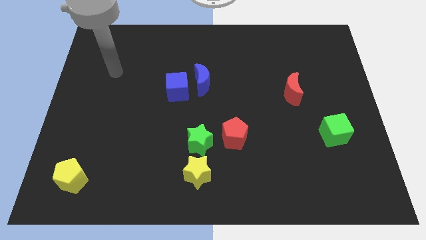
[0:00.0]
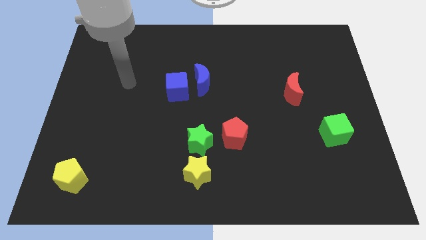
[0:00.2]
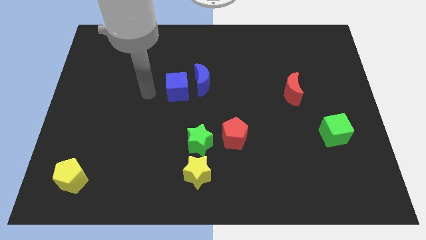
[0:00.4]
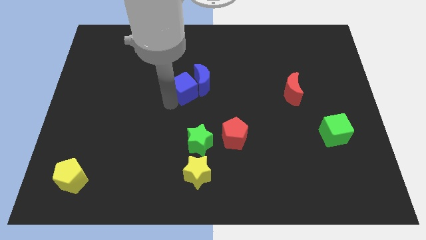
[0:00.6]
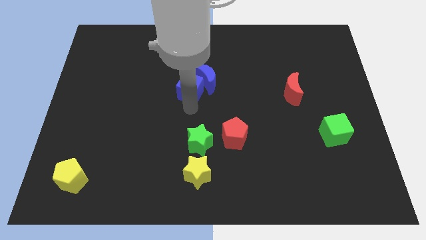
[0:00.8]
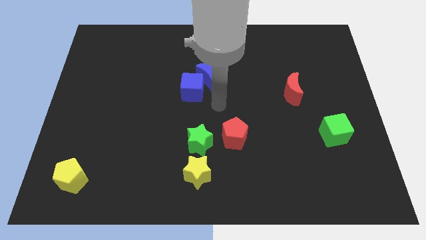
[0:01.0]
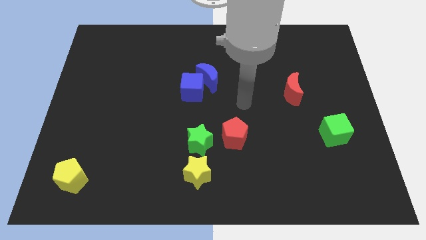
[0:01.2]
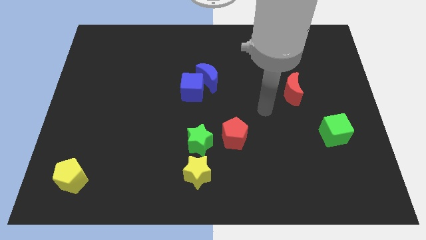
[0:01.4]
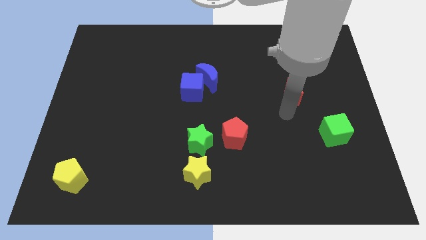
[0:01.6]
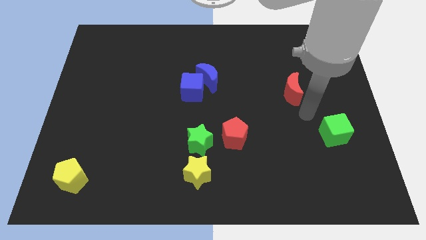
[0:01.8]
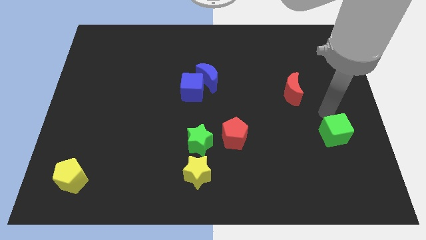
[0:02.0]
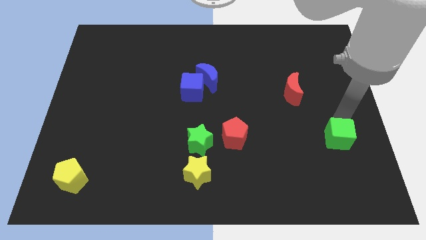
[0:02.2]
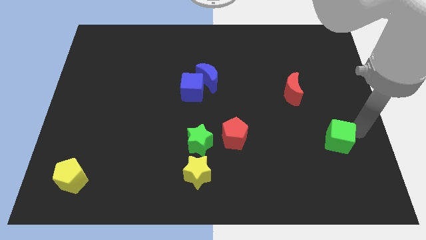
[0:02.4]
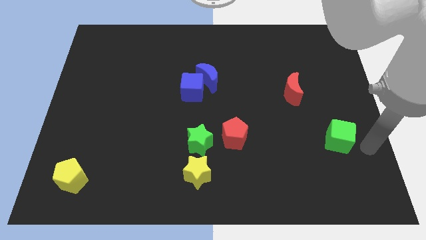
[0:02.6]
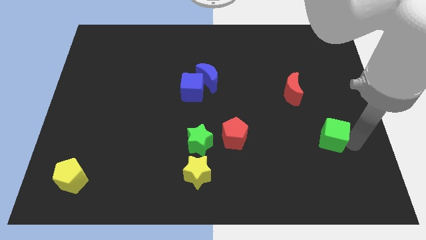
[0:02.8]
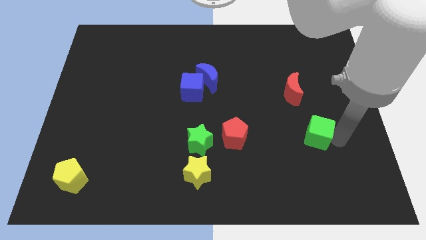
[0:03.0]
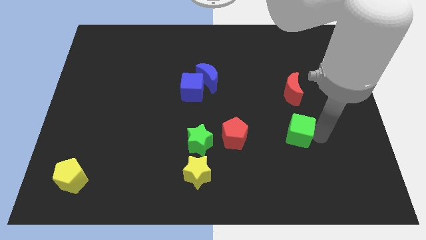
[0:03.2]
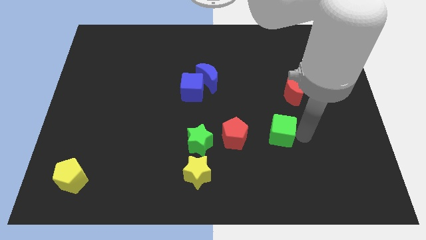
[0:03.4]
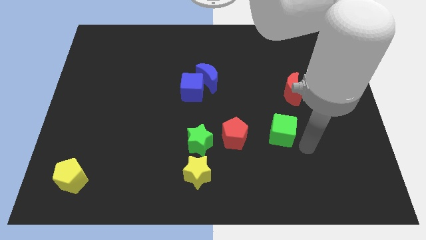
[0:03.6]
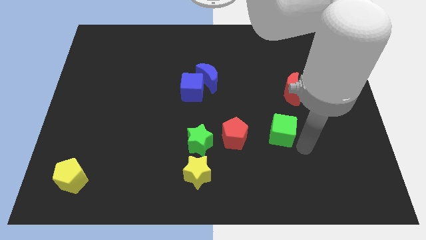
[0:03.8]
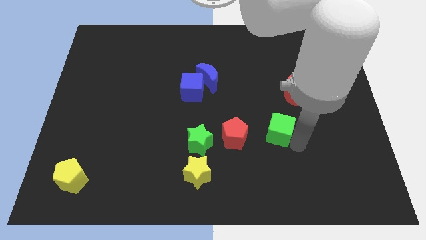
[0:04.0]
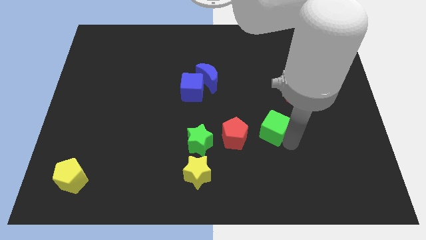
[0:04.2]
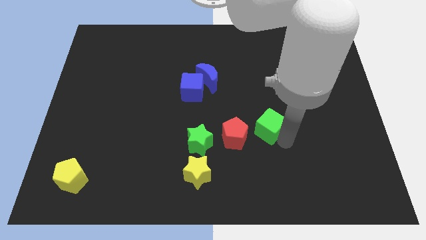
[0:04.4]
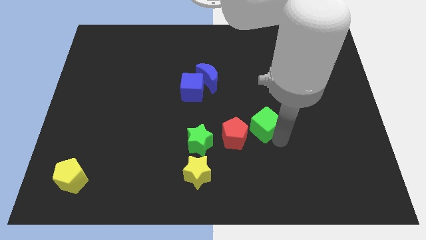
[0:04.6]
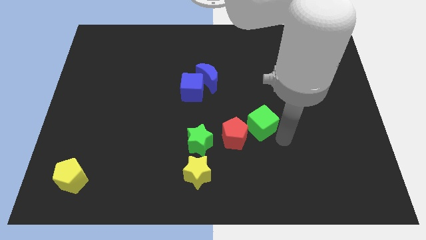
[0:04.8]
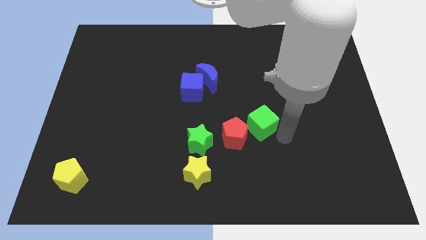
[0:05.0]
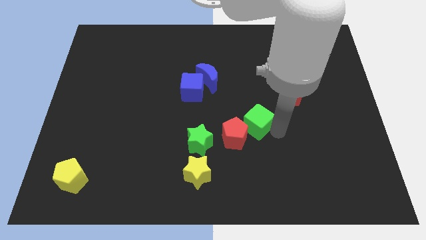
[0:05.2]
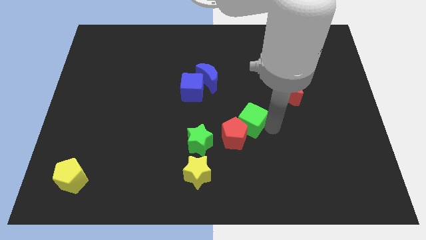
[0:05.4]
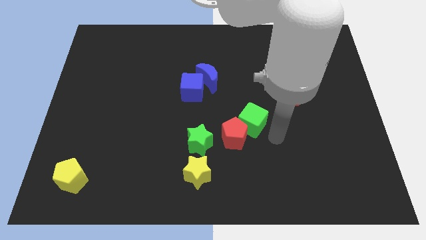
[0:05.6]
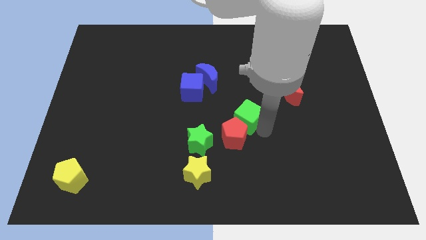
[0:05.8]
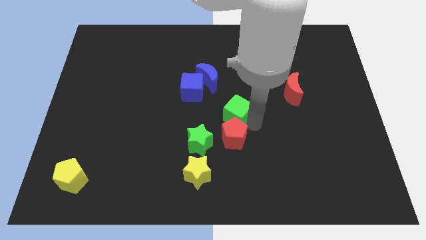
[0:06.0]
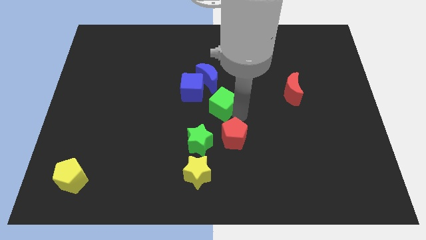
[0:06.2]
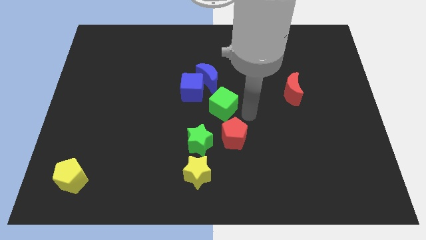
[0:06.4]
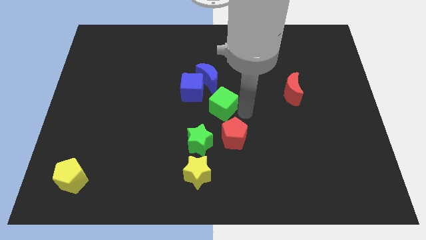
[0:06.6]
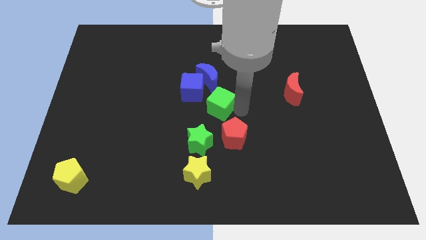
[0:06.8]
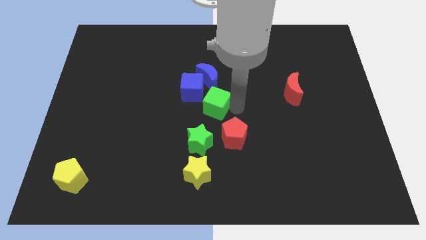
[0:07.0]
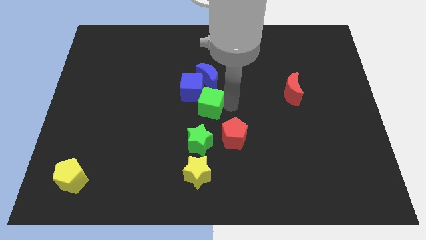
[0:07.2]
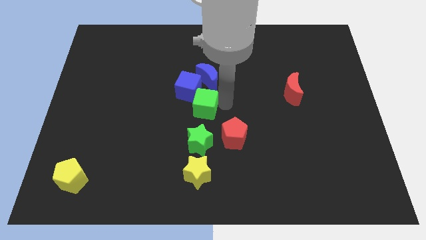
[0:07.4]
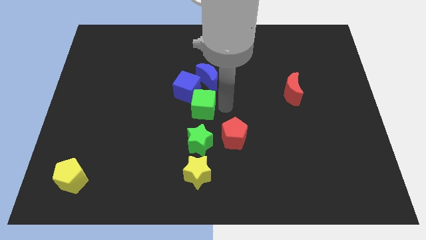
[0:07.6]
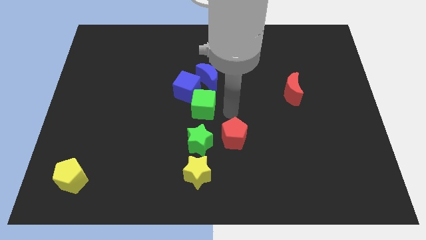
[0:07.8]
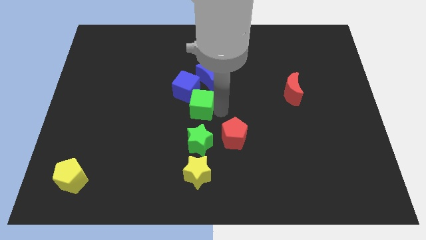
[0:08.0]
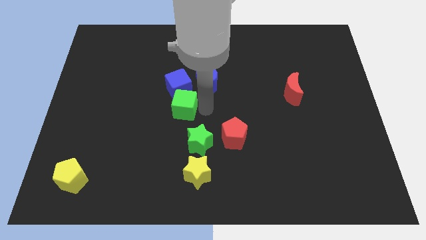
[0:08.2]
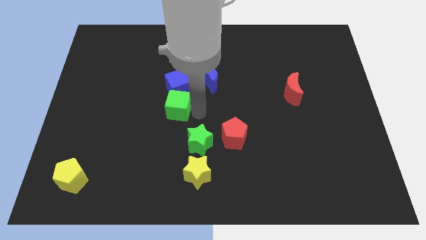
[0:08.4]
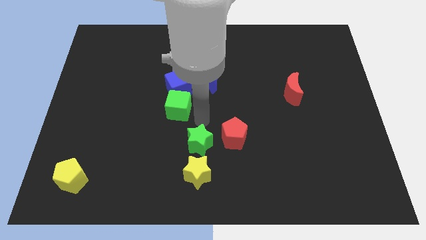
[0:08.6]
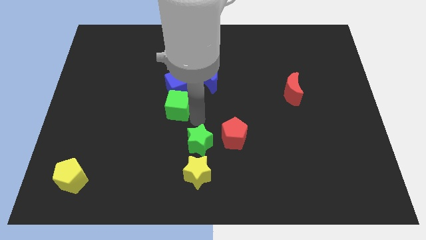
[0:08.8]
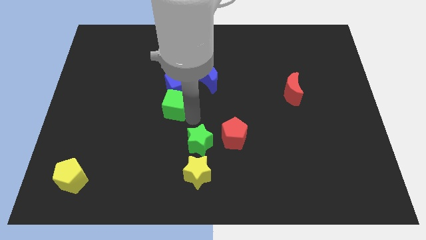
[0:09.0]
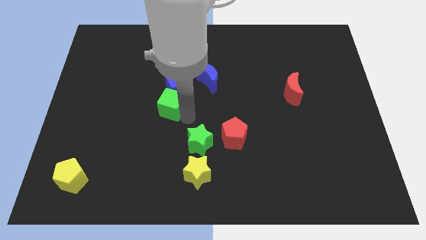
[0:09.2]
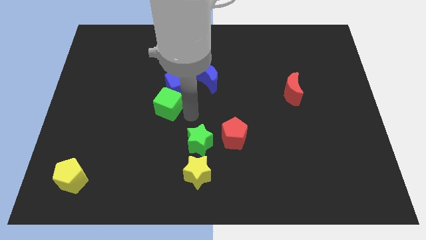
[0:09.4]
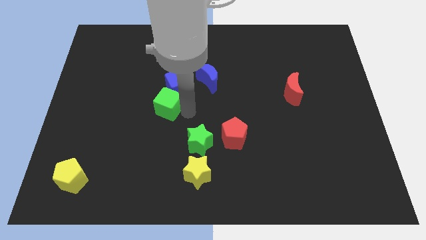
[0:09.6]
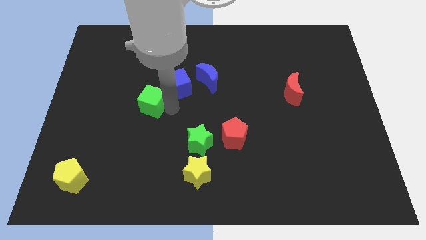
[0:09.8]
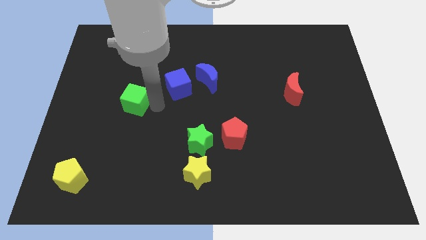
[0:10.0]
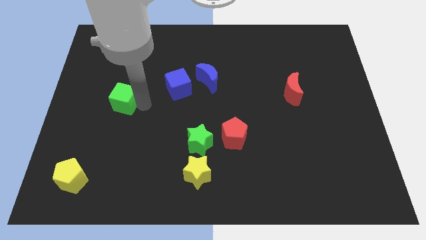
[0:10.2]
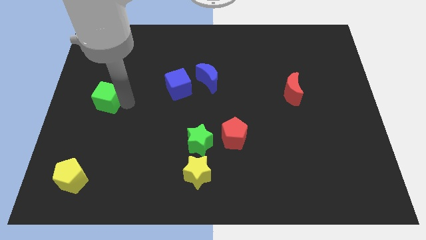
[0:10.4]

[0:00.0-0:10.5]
push the green cube to the left side
